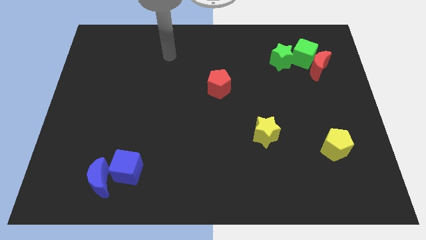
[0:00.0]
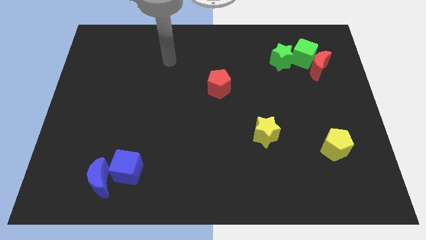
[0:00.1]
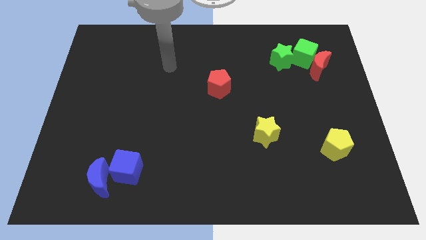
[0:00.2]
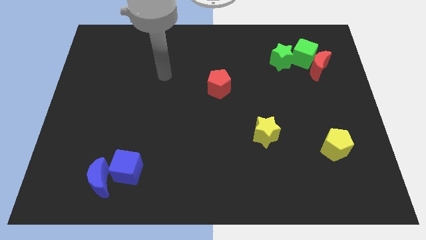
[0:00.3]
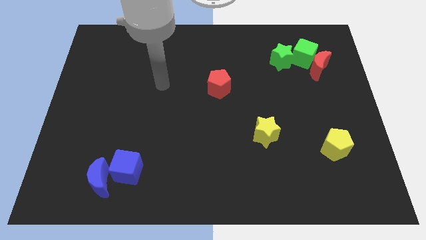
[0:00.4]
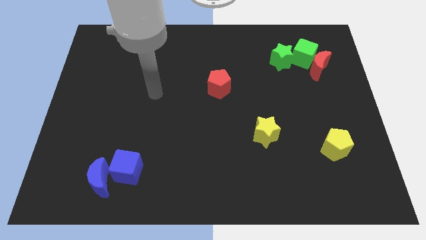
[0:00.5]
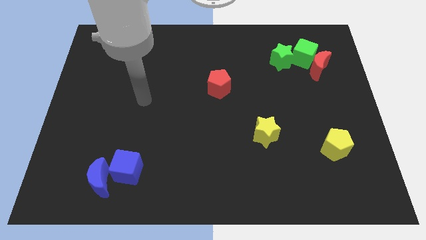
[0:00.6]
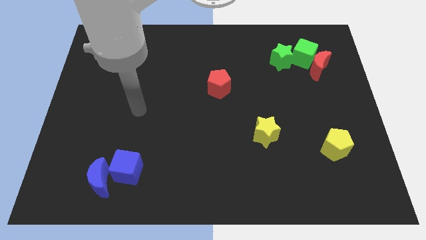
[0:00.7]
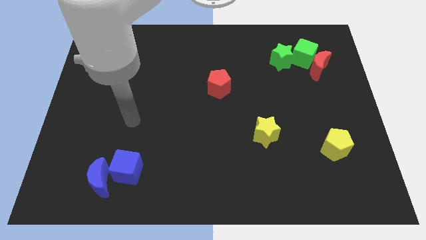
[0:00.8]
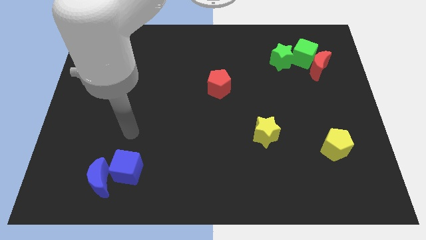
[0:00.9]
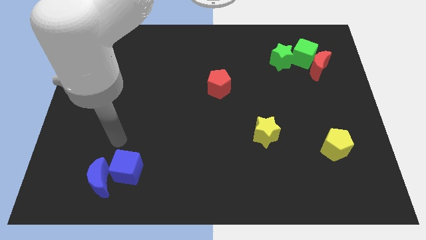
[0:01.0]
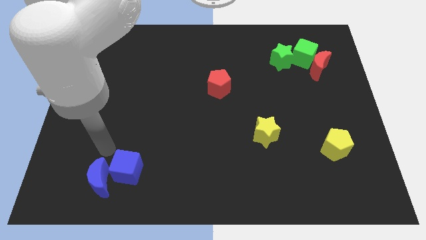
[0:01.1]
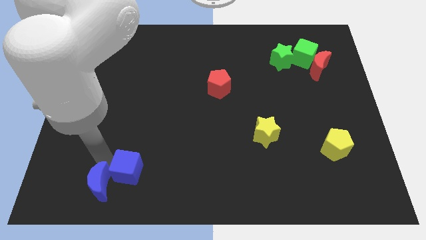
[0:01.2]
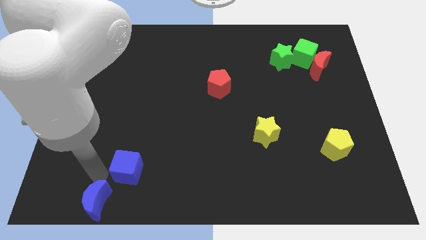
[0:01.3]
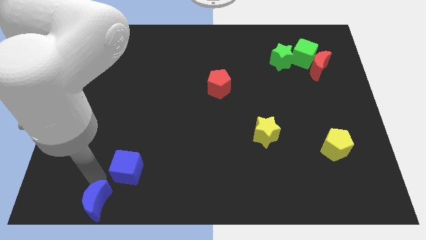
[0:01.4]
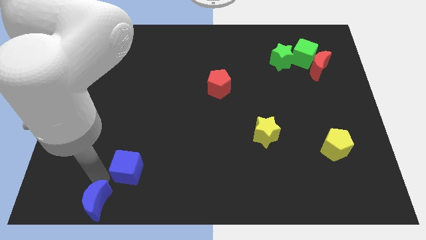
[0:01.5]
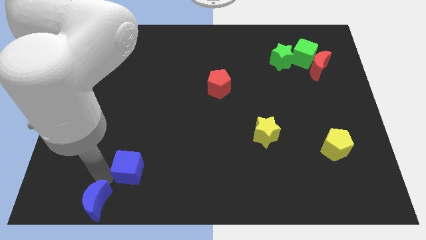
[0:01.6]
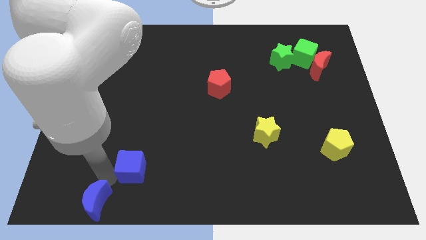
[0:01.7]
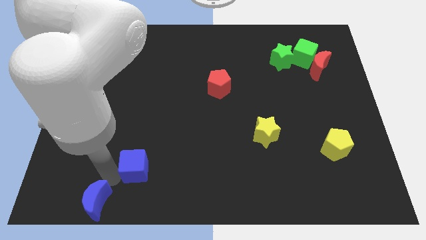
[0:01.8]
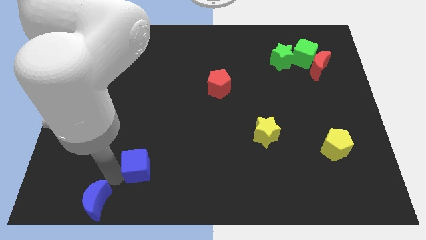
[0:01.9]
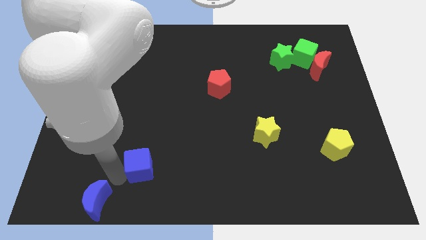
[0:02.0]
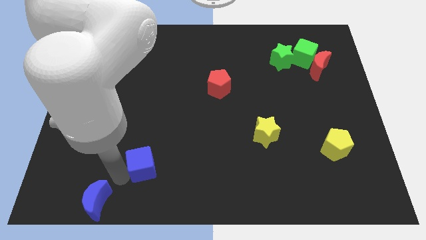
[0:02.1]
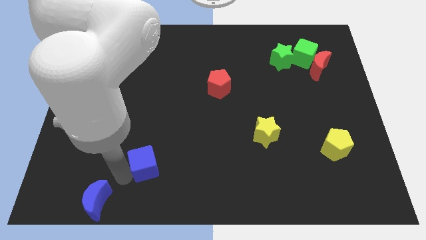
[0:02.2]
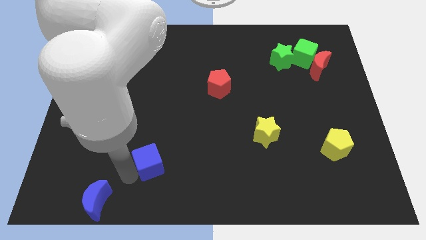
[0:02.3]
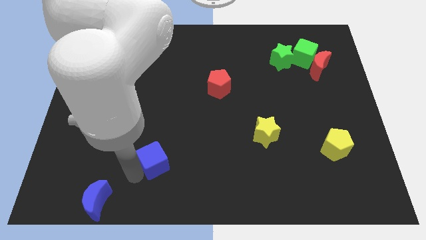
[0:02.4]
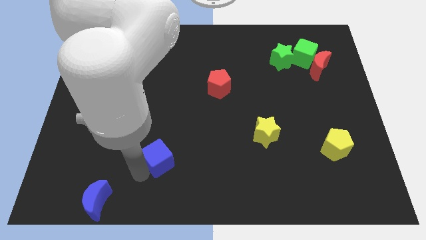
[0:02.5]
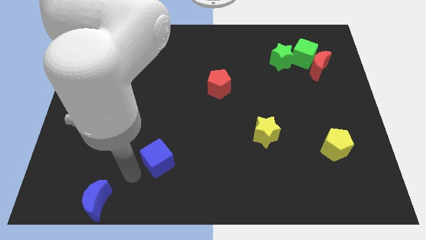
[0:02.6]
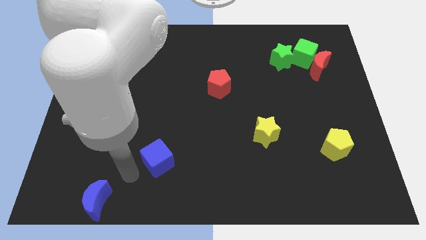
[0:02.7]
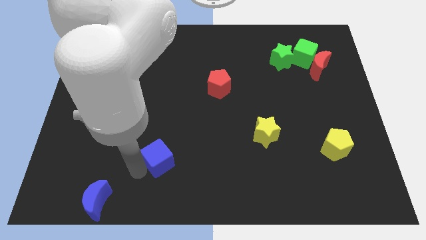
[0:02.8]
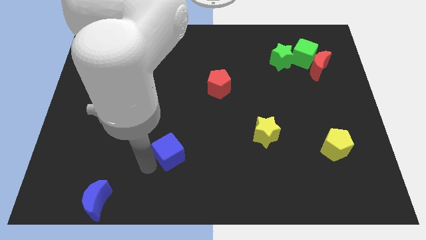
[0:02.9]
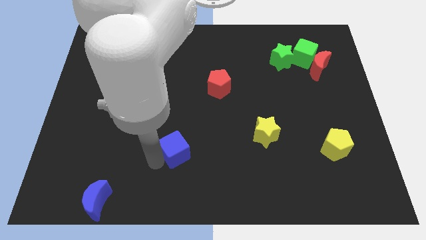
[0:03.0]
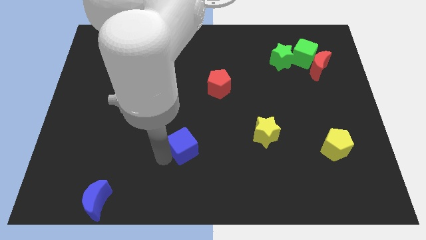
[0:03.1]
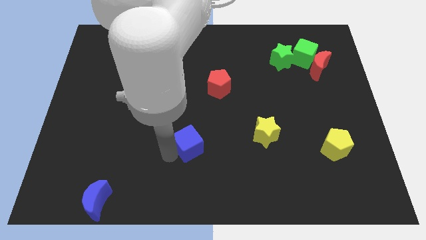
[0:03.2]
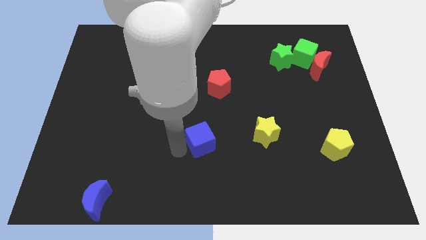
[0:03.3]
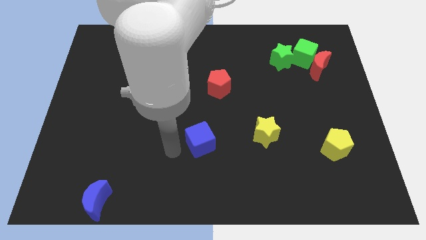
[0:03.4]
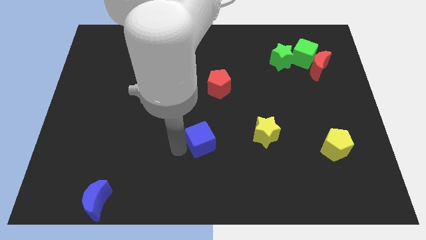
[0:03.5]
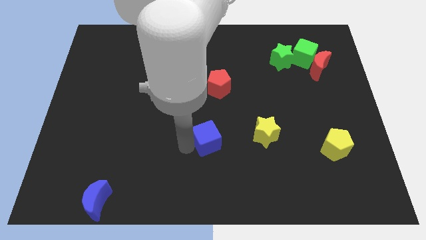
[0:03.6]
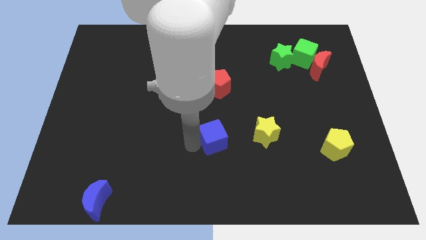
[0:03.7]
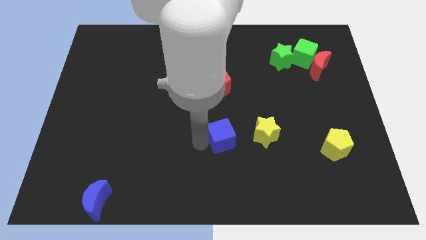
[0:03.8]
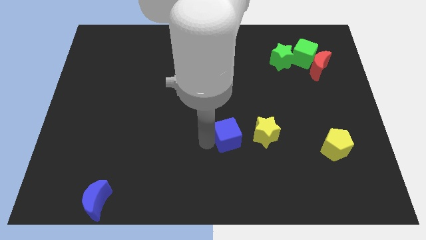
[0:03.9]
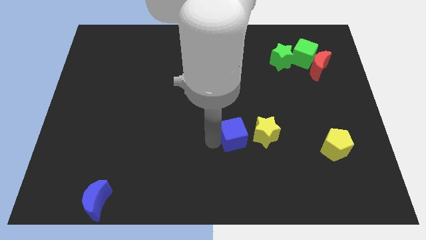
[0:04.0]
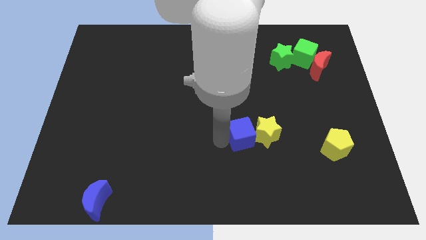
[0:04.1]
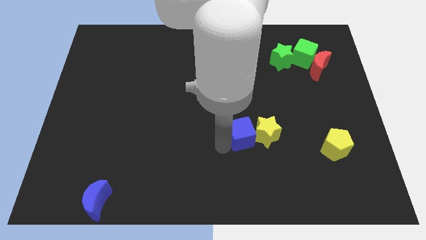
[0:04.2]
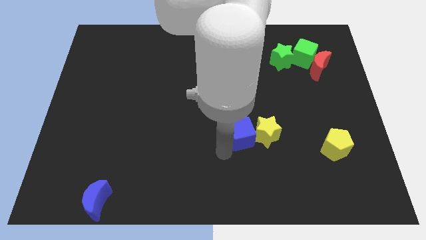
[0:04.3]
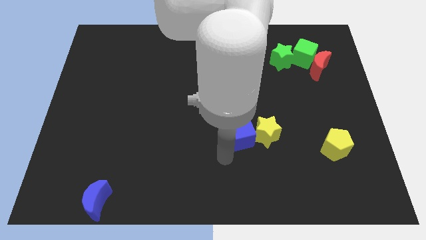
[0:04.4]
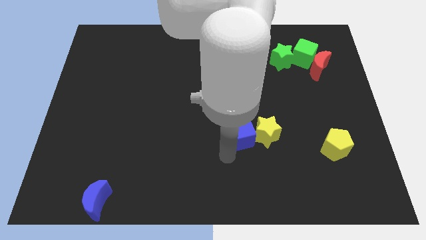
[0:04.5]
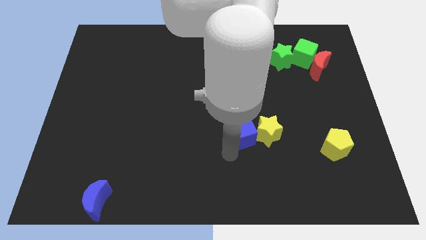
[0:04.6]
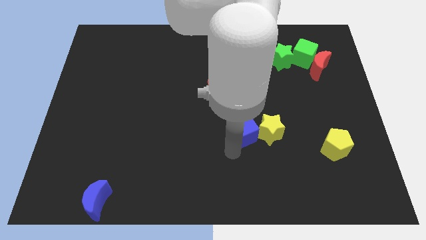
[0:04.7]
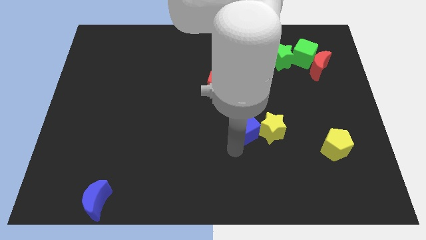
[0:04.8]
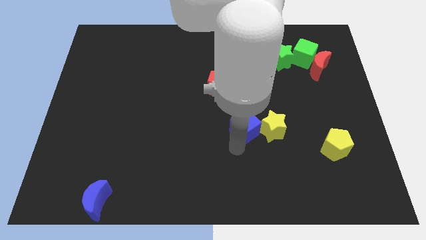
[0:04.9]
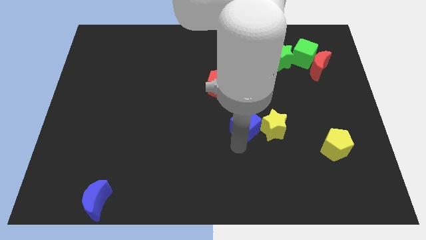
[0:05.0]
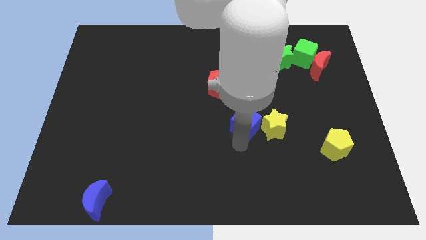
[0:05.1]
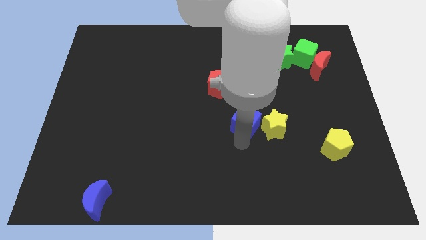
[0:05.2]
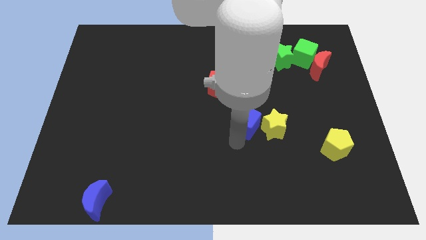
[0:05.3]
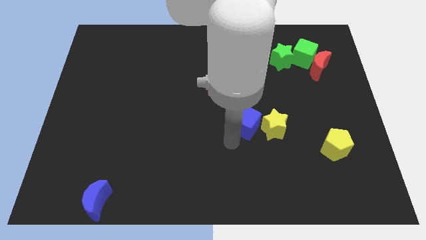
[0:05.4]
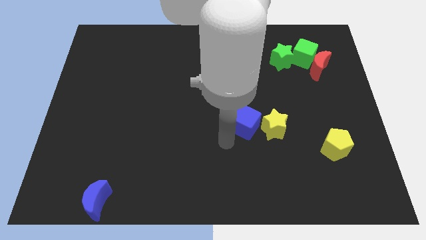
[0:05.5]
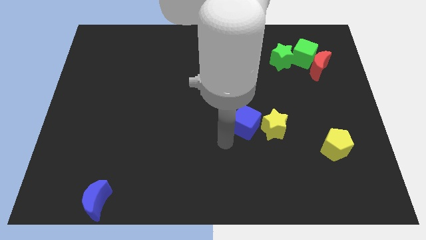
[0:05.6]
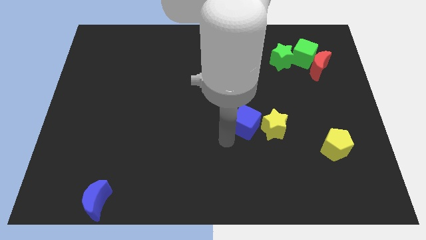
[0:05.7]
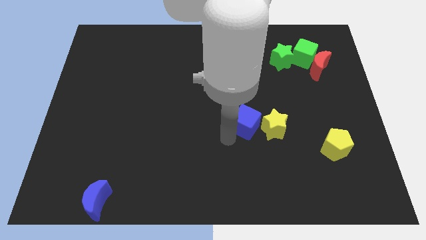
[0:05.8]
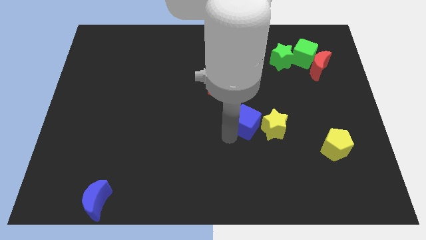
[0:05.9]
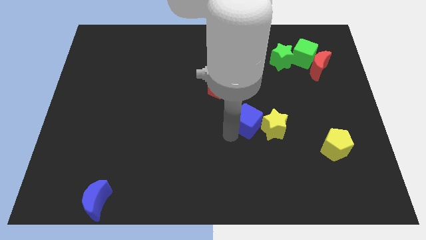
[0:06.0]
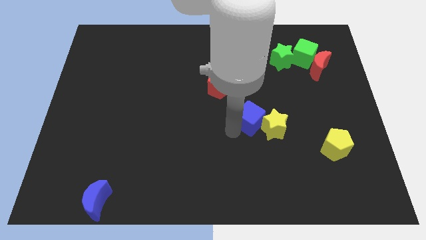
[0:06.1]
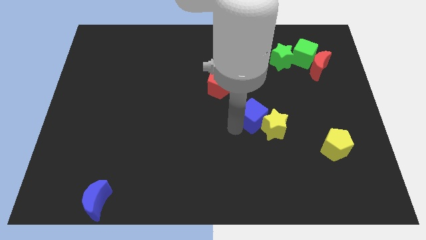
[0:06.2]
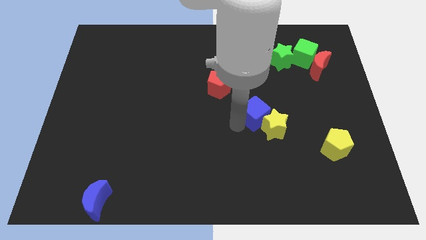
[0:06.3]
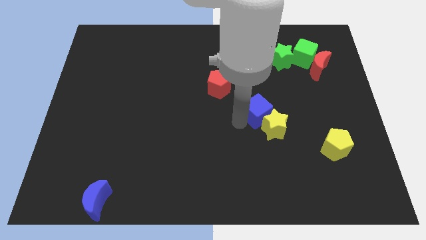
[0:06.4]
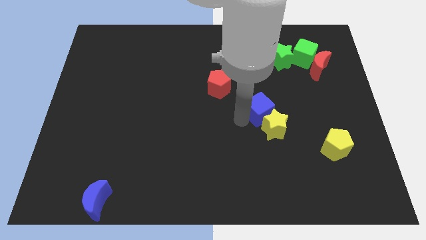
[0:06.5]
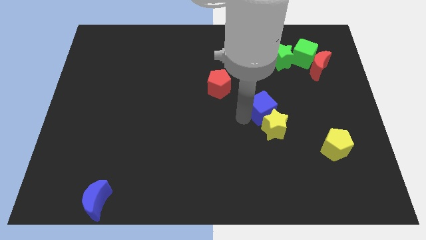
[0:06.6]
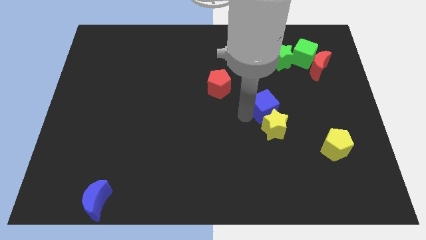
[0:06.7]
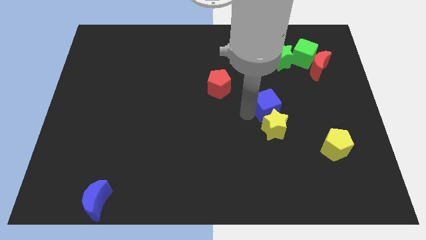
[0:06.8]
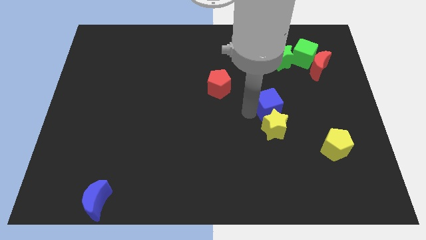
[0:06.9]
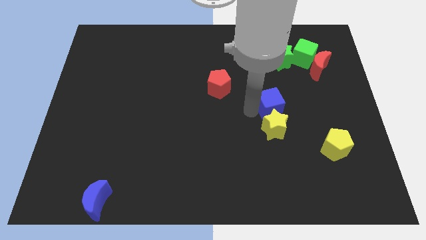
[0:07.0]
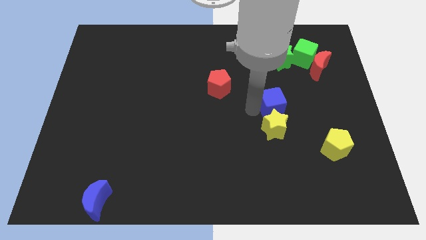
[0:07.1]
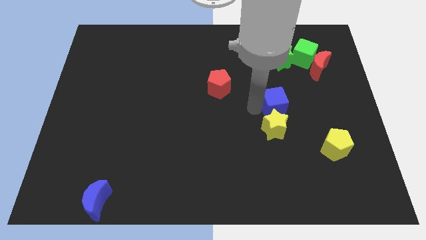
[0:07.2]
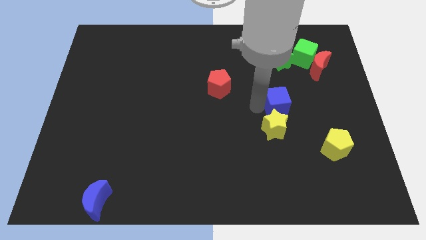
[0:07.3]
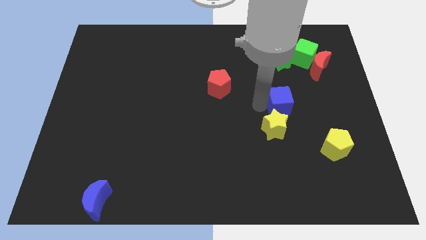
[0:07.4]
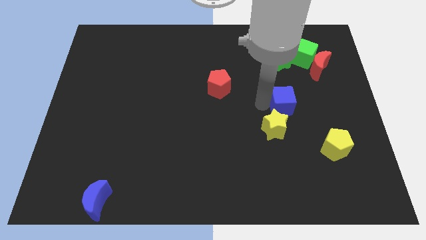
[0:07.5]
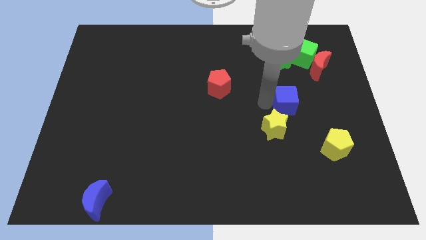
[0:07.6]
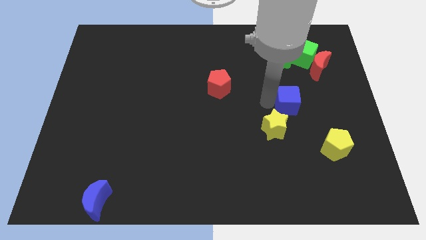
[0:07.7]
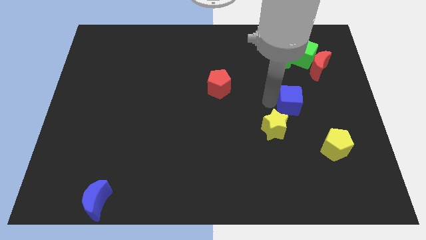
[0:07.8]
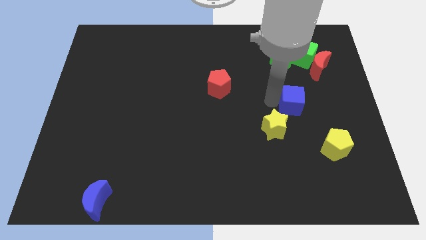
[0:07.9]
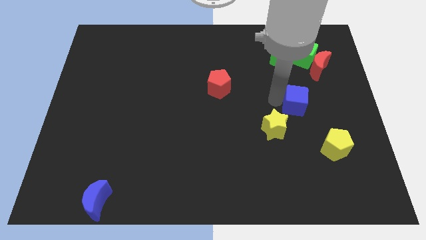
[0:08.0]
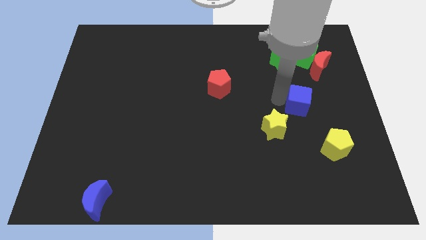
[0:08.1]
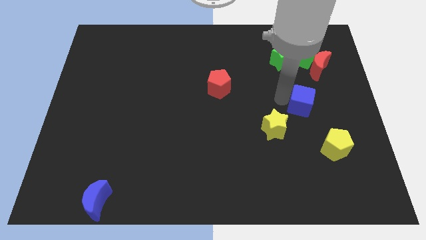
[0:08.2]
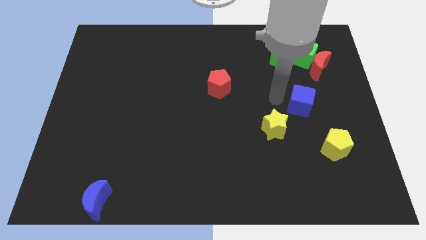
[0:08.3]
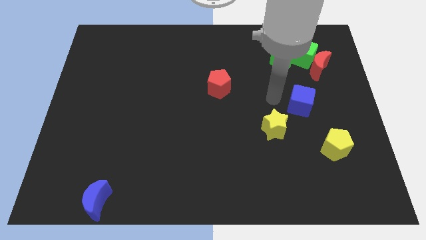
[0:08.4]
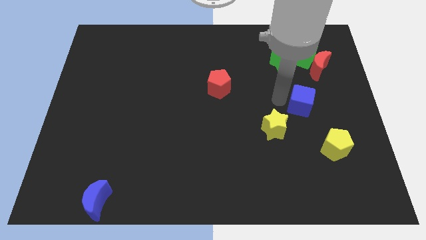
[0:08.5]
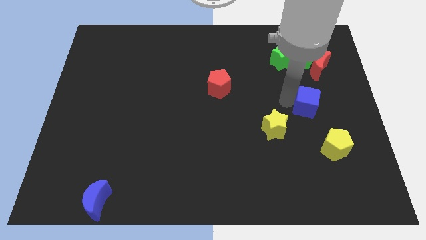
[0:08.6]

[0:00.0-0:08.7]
put the blue cube to the top side of the yellow pentagon
